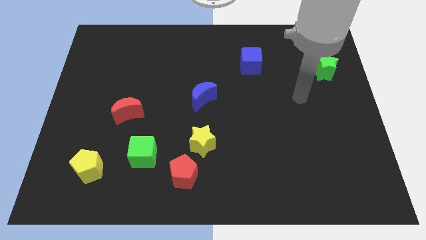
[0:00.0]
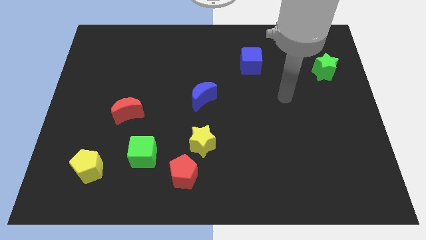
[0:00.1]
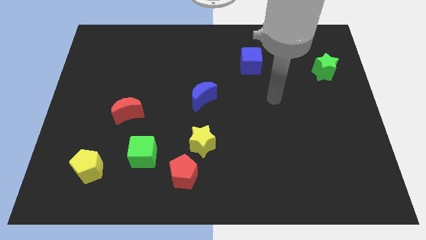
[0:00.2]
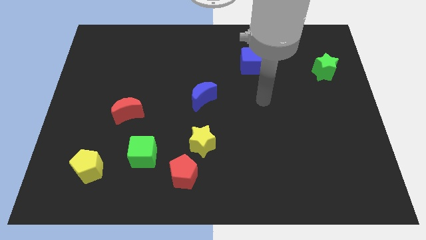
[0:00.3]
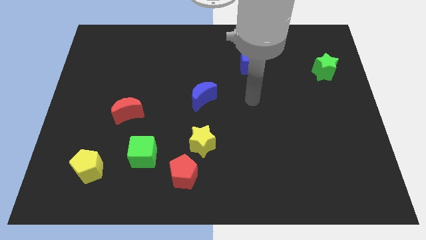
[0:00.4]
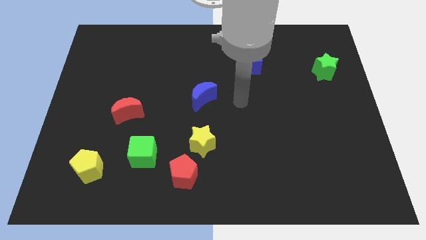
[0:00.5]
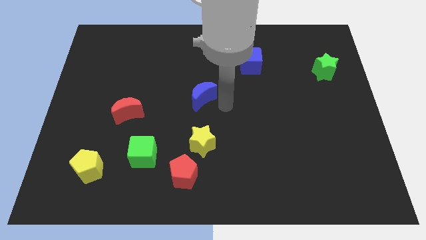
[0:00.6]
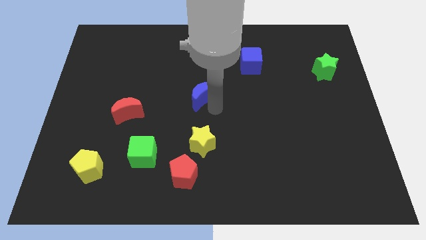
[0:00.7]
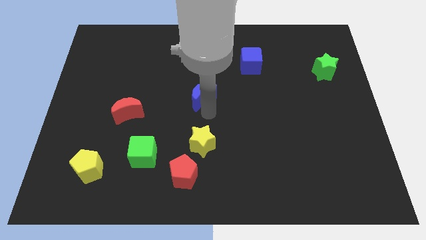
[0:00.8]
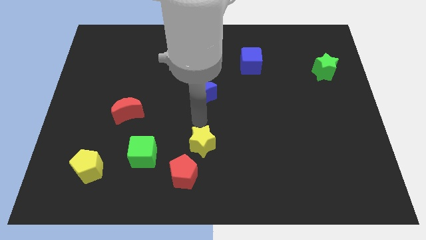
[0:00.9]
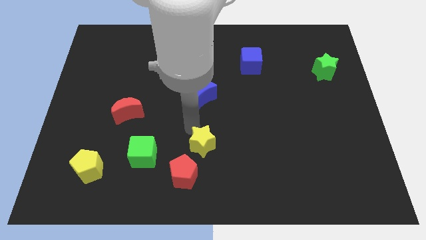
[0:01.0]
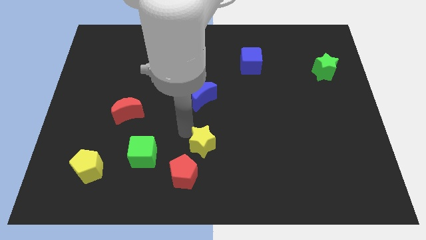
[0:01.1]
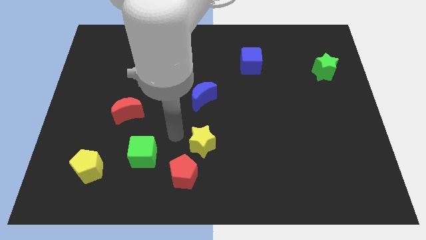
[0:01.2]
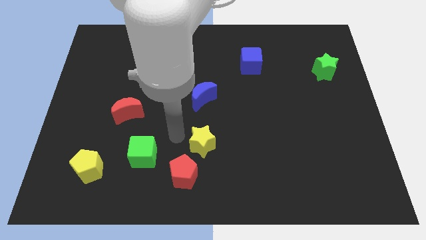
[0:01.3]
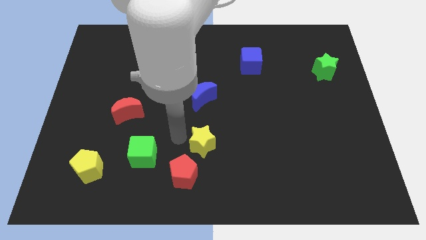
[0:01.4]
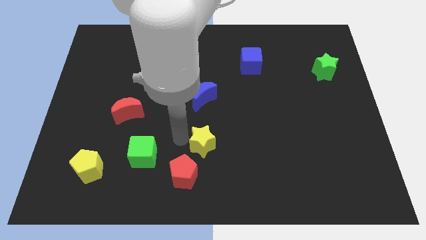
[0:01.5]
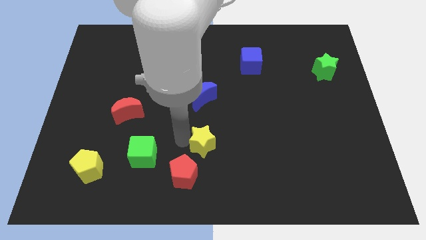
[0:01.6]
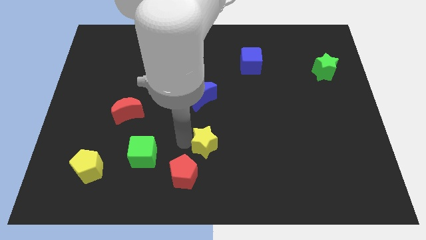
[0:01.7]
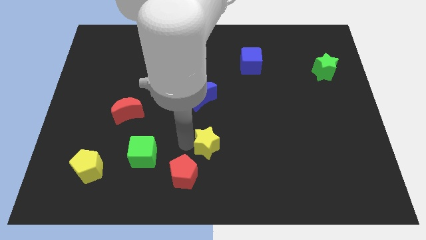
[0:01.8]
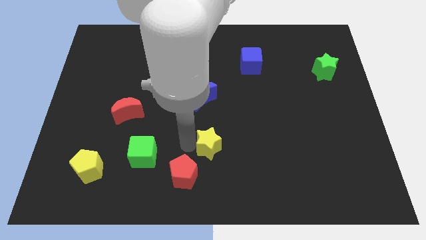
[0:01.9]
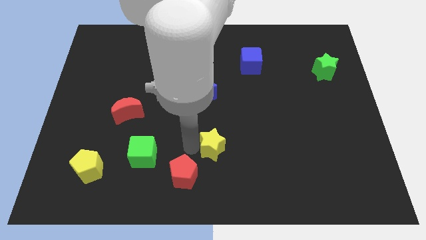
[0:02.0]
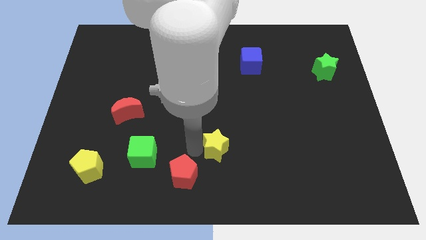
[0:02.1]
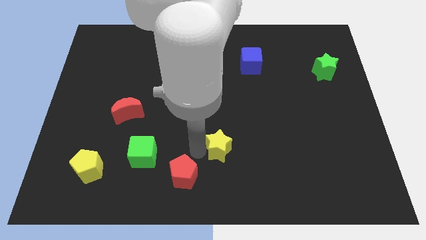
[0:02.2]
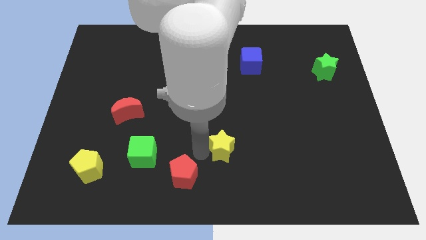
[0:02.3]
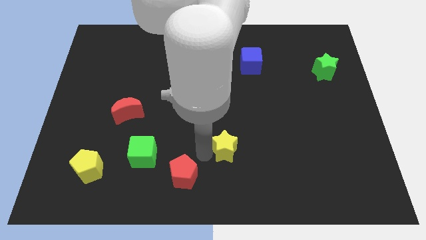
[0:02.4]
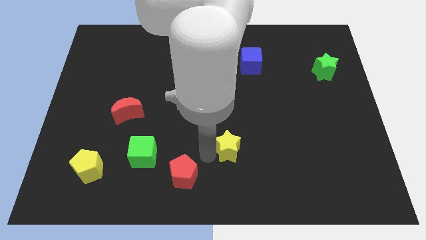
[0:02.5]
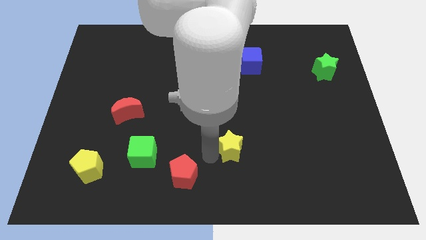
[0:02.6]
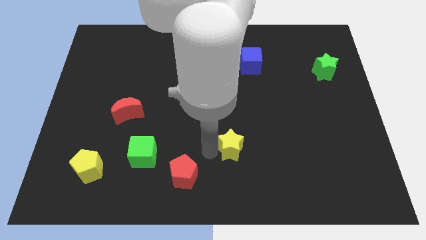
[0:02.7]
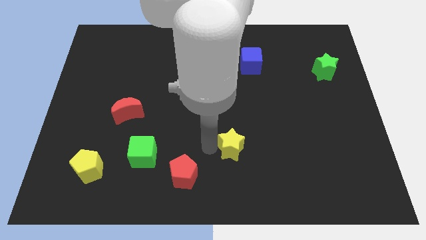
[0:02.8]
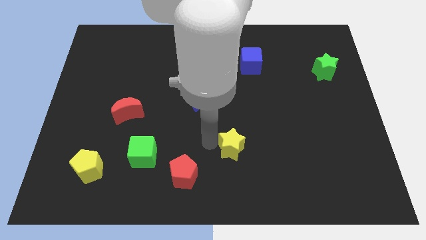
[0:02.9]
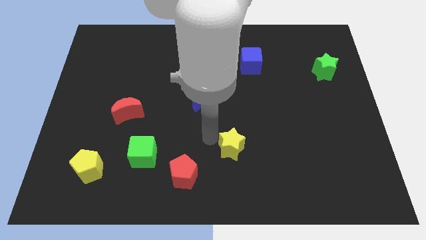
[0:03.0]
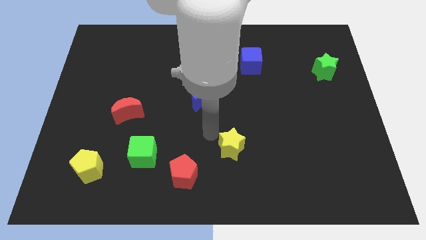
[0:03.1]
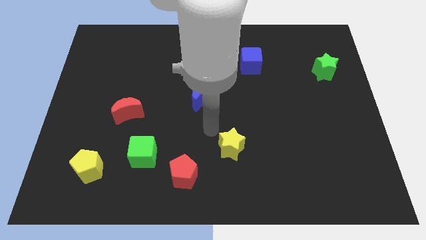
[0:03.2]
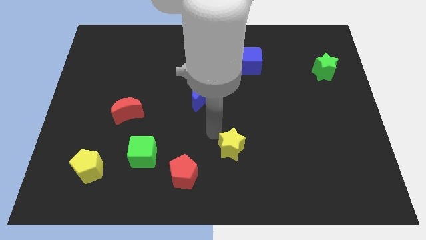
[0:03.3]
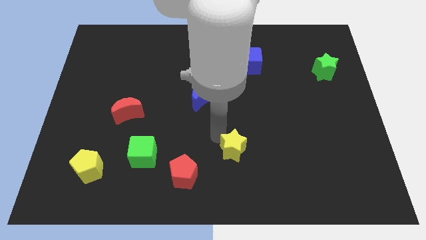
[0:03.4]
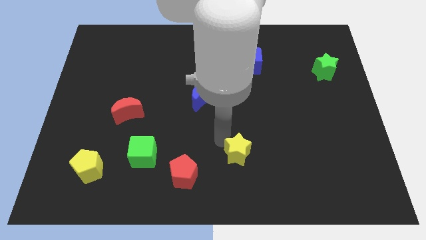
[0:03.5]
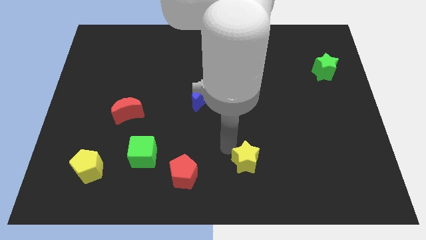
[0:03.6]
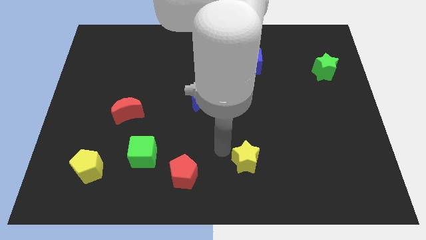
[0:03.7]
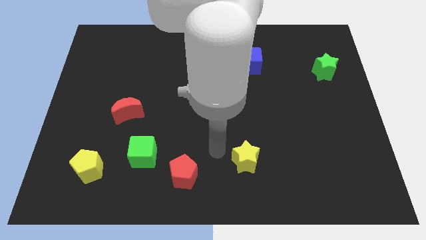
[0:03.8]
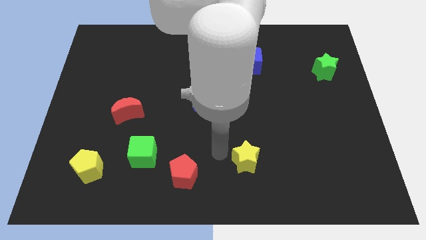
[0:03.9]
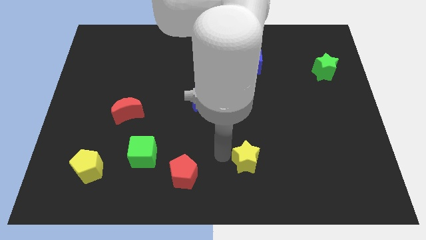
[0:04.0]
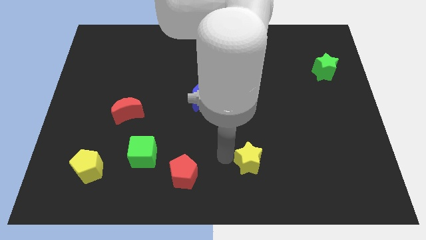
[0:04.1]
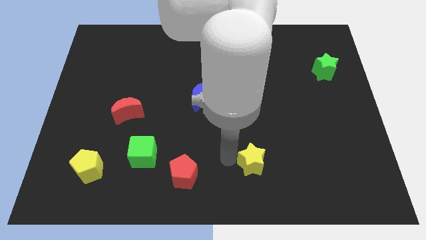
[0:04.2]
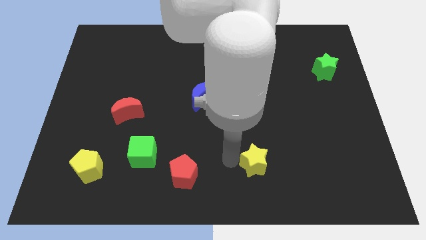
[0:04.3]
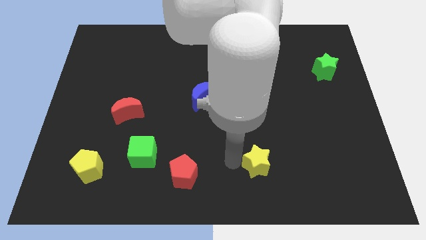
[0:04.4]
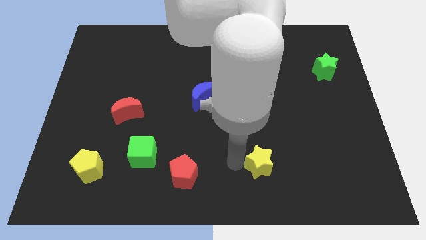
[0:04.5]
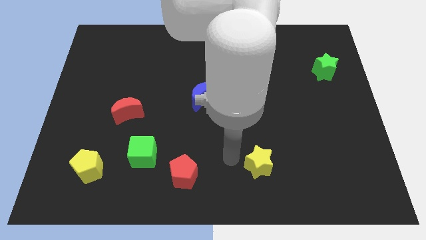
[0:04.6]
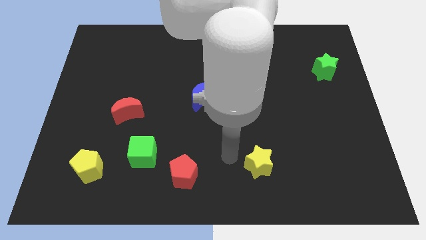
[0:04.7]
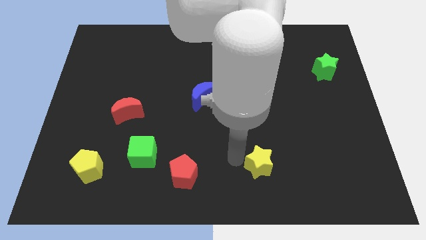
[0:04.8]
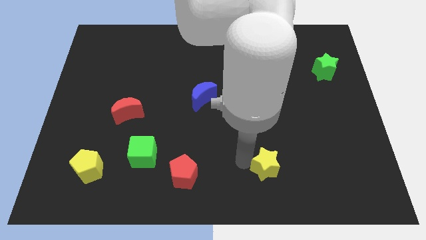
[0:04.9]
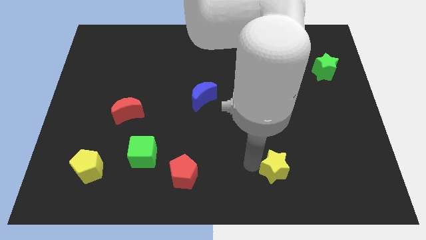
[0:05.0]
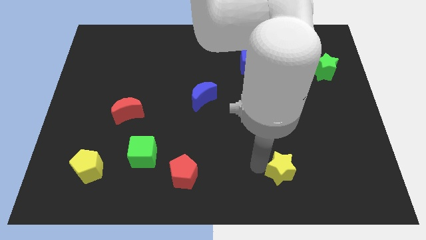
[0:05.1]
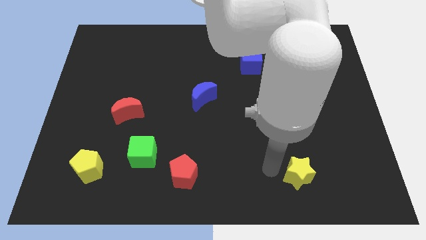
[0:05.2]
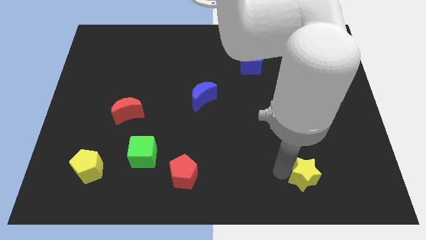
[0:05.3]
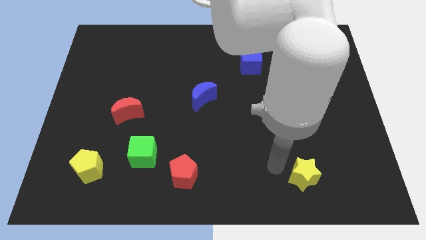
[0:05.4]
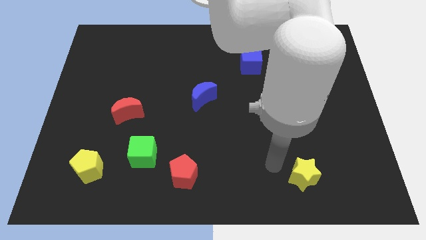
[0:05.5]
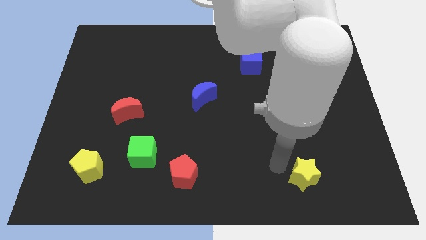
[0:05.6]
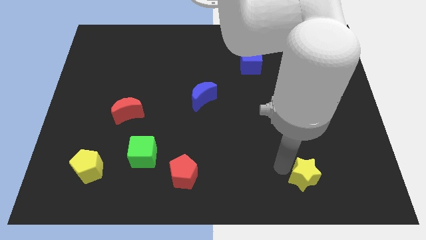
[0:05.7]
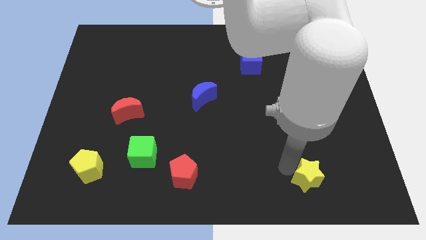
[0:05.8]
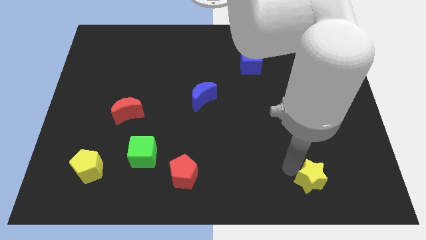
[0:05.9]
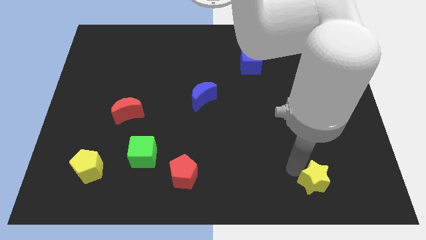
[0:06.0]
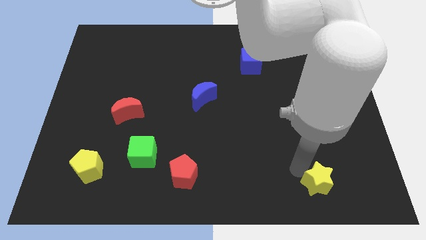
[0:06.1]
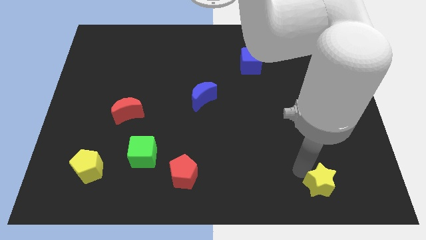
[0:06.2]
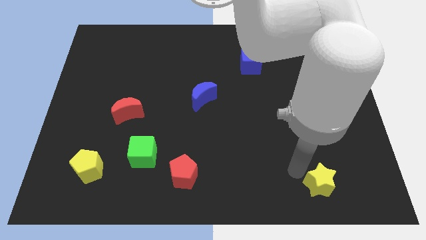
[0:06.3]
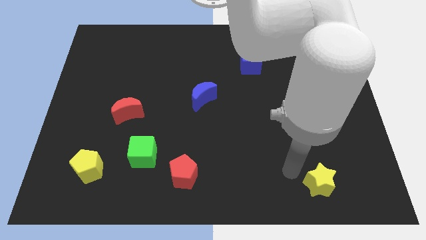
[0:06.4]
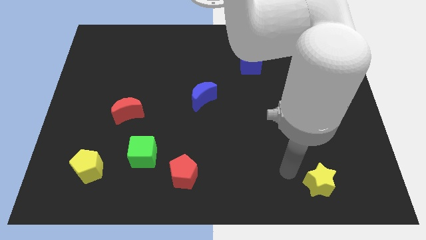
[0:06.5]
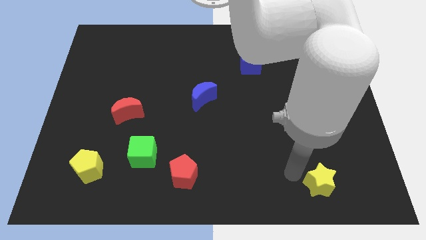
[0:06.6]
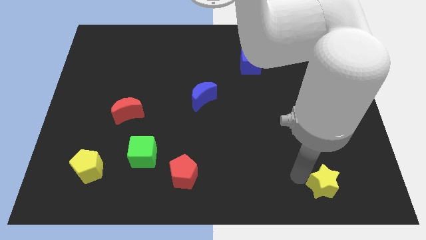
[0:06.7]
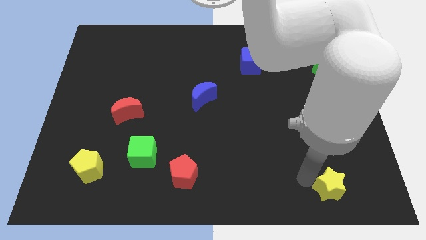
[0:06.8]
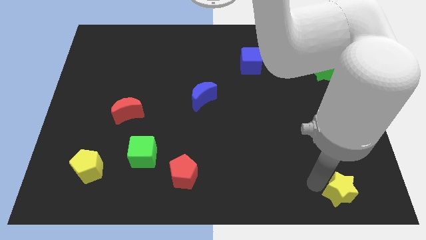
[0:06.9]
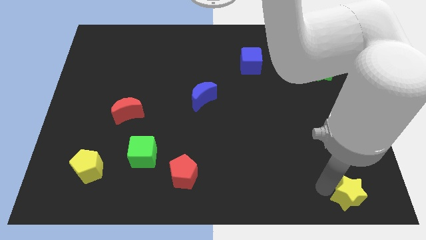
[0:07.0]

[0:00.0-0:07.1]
slide the yellow star to the bottom right corner
